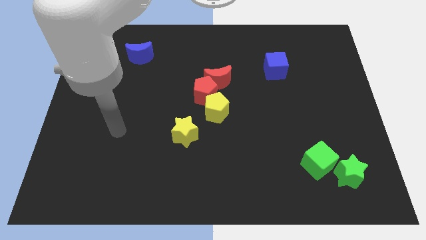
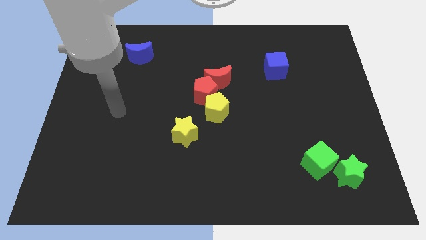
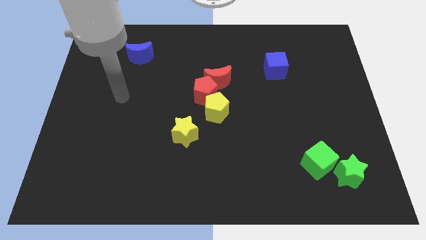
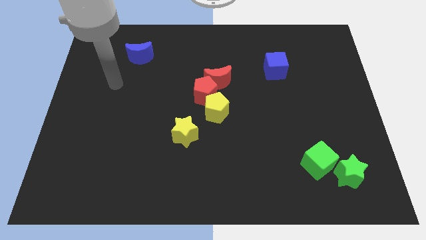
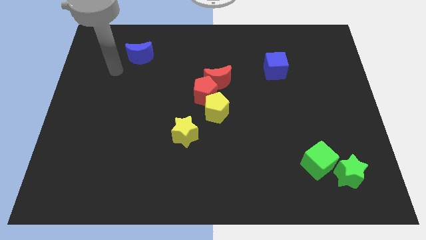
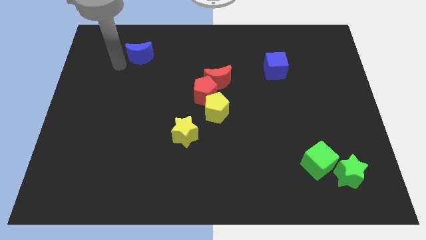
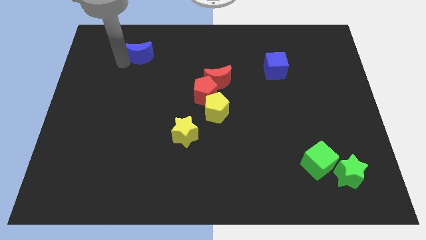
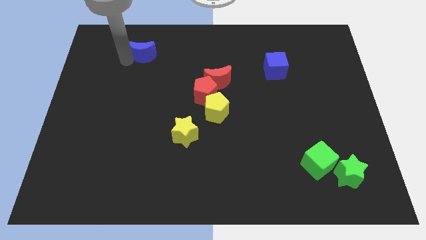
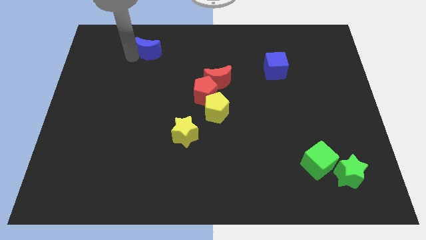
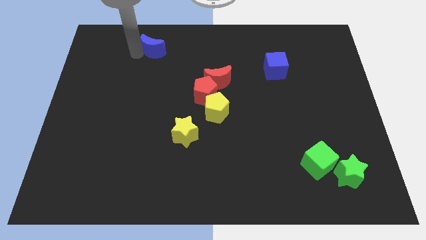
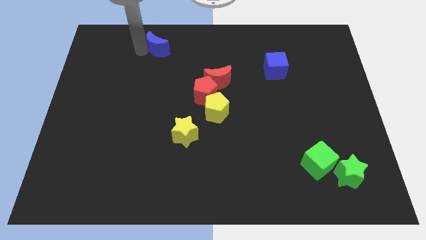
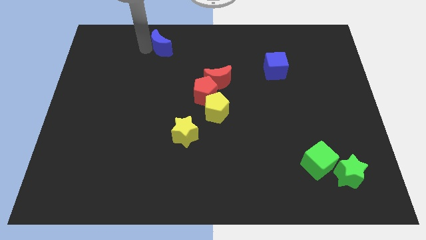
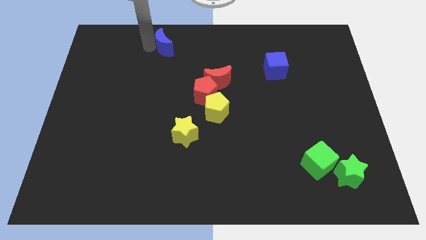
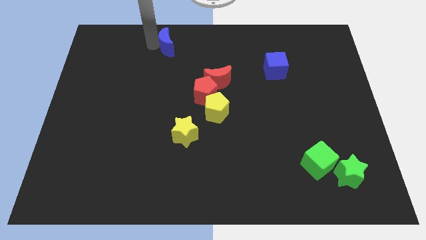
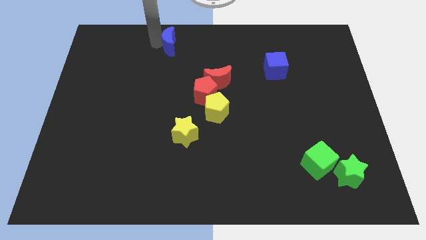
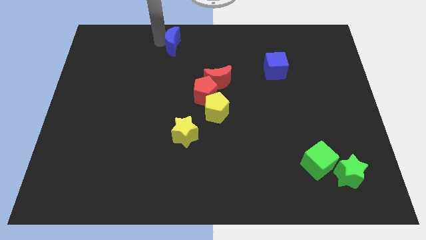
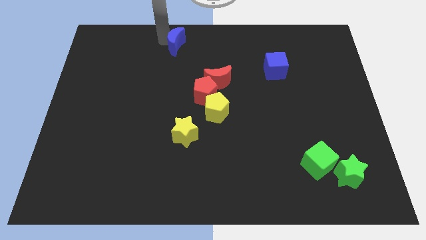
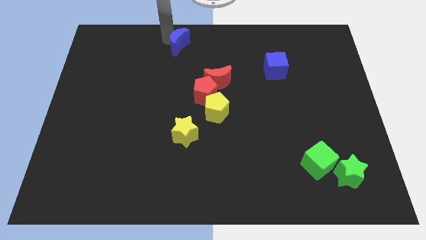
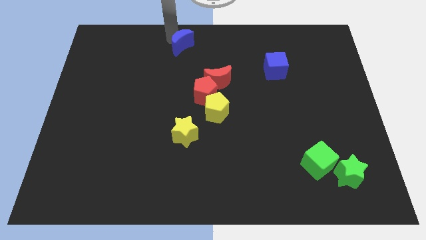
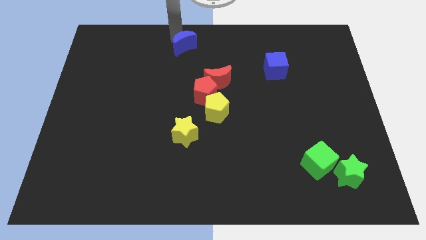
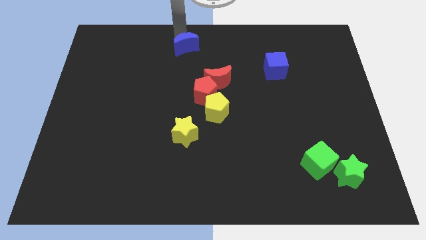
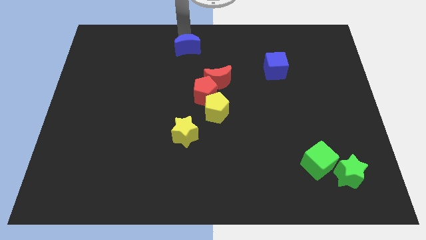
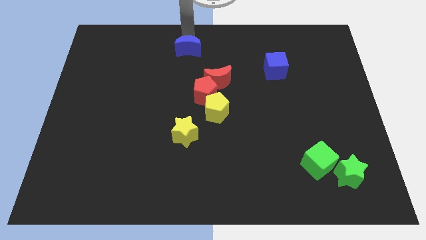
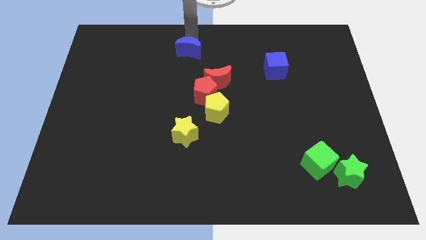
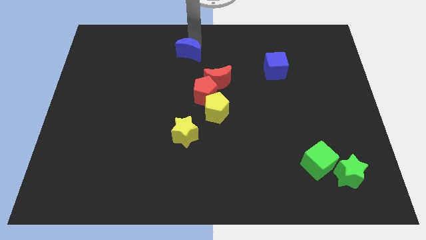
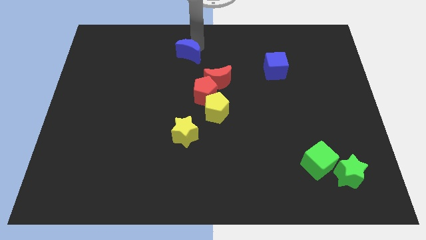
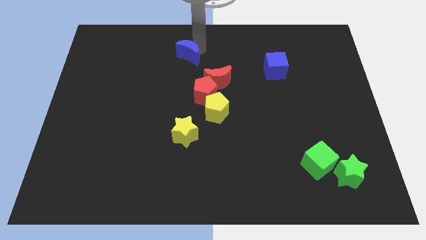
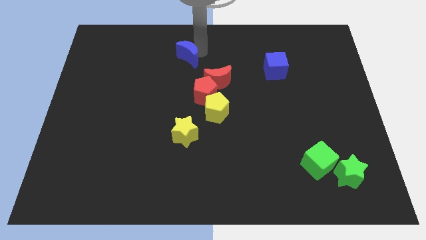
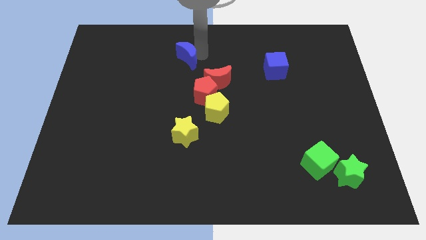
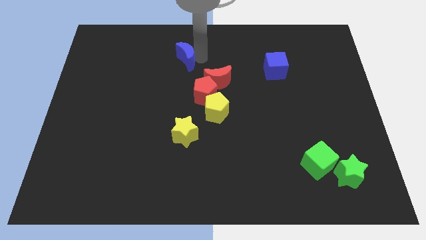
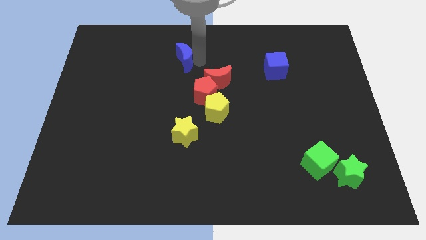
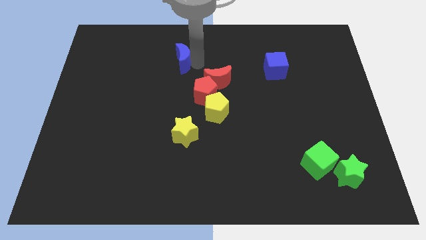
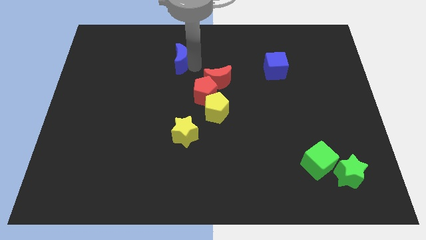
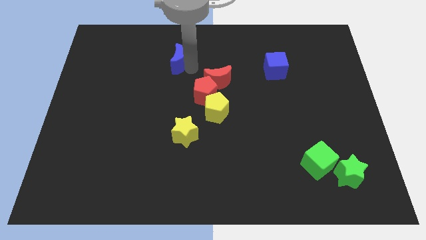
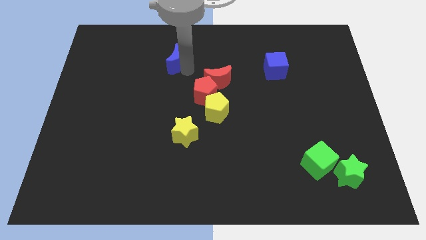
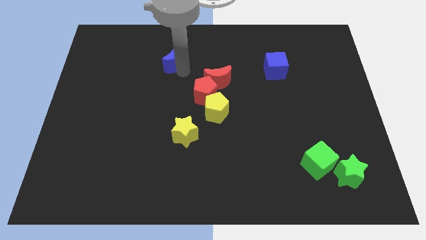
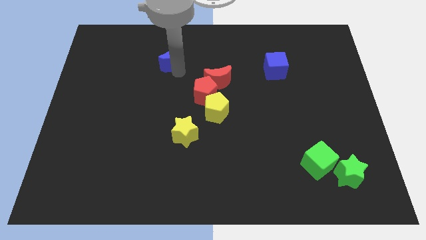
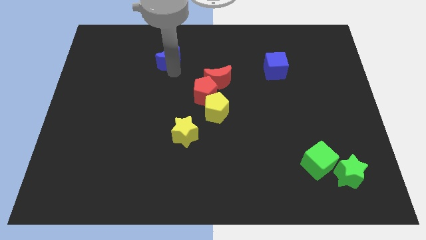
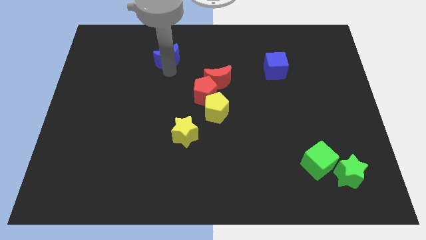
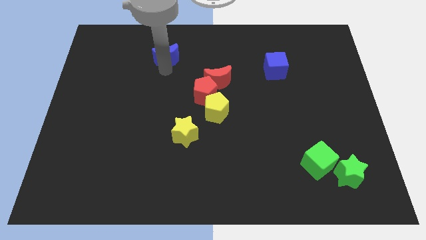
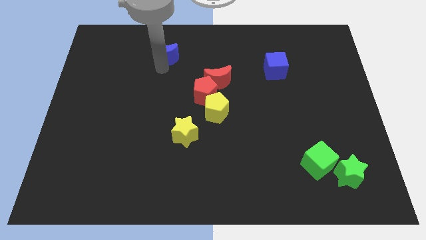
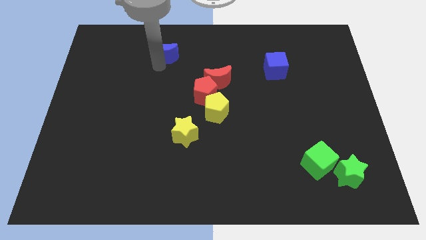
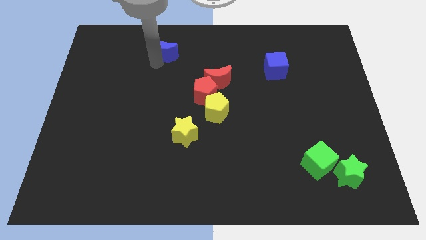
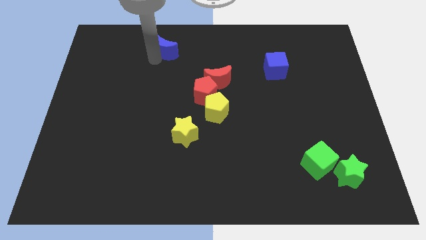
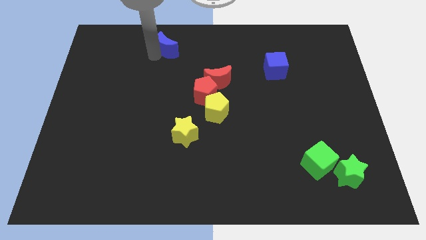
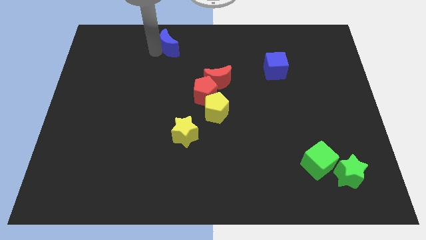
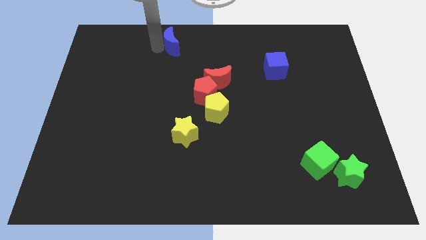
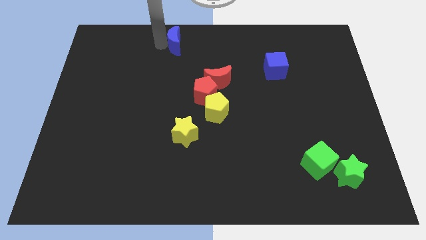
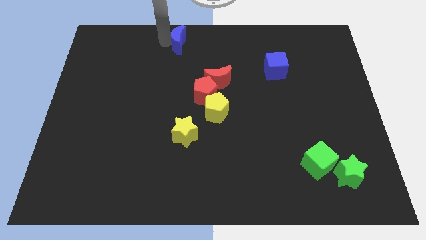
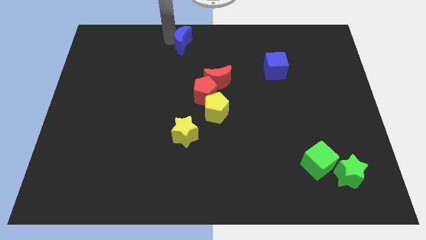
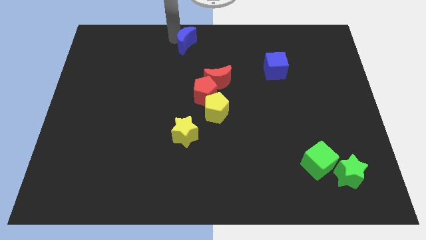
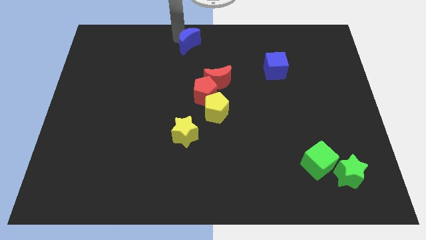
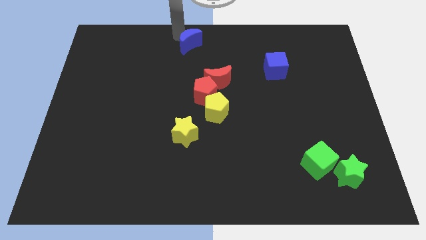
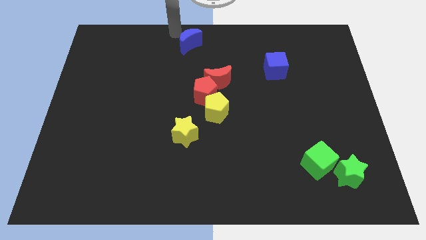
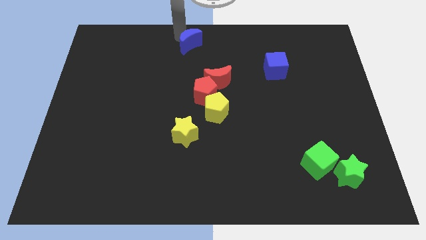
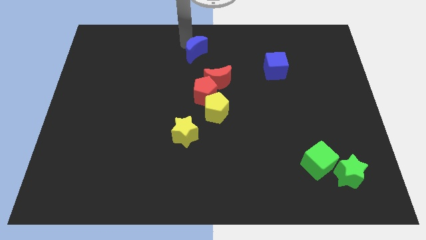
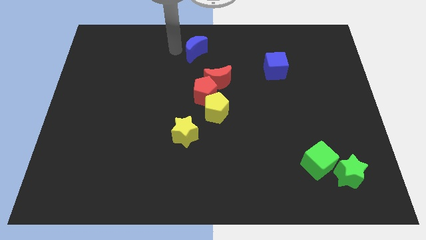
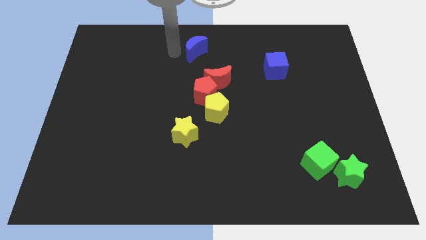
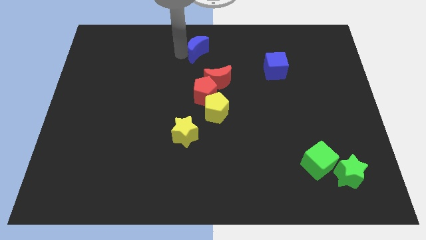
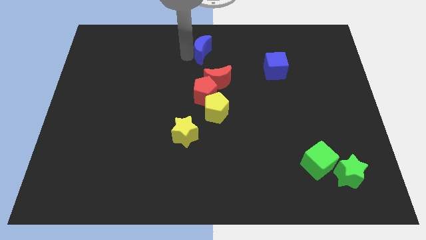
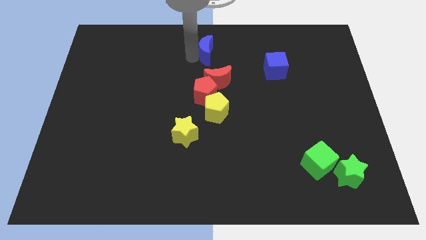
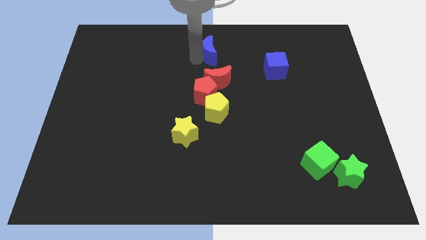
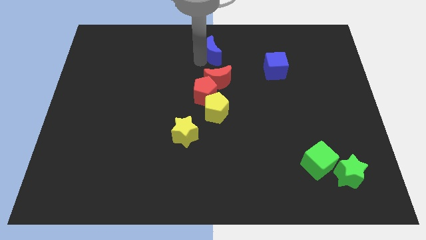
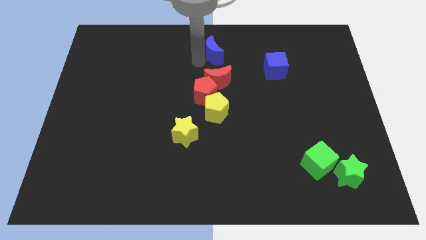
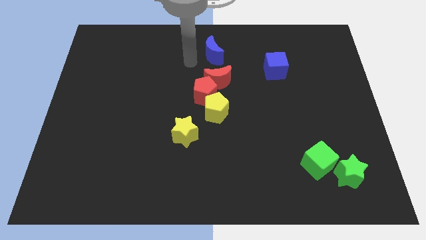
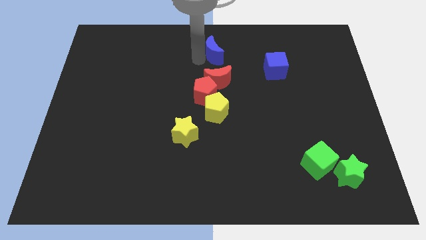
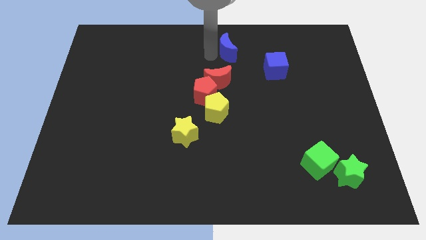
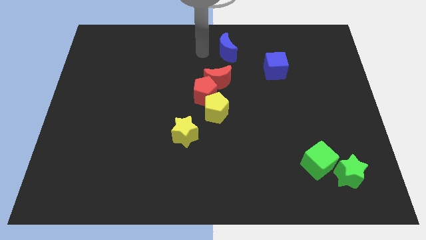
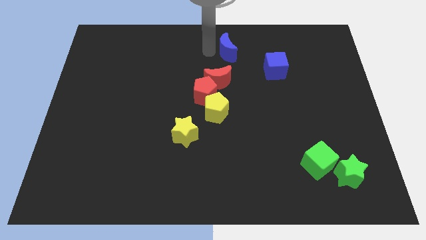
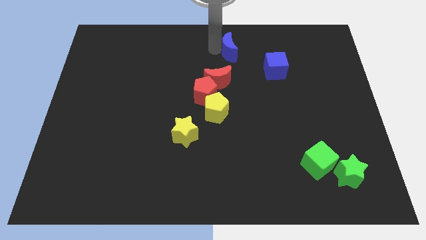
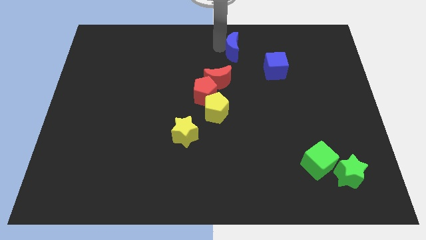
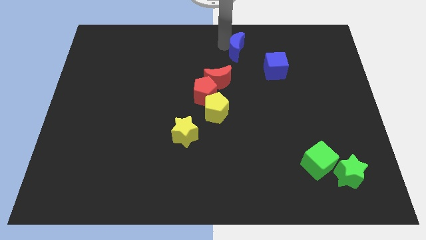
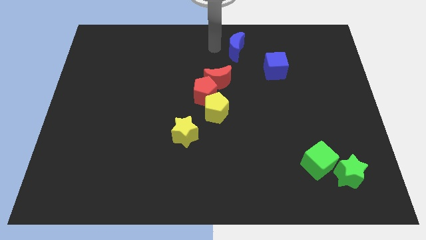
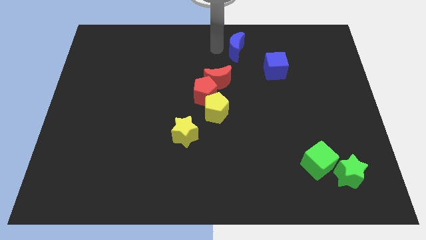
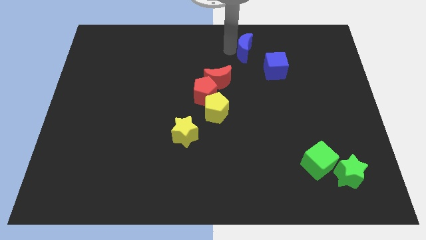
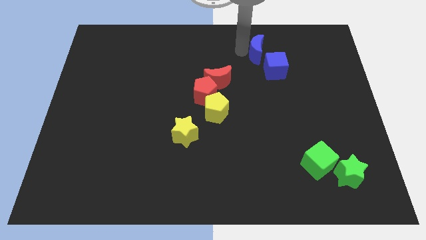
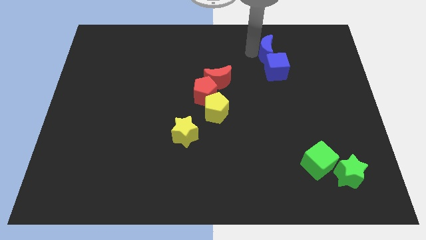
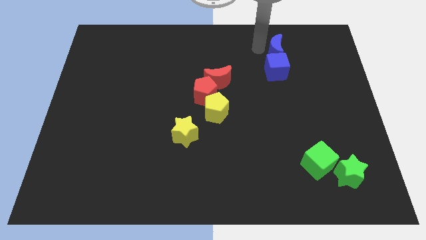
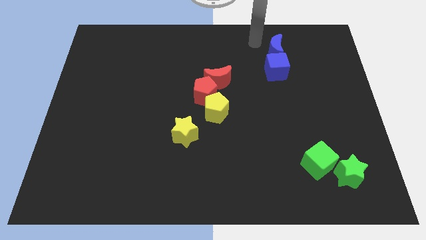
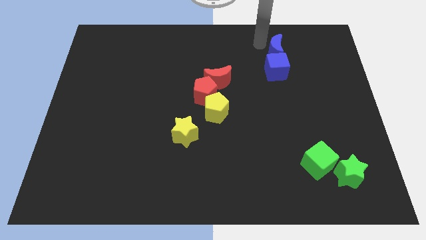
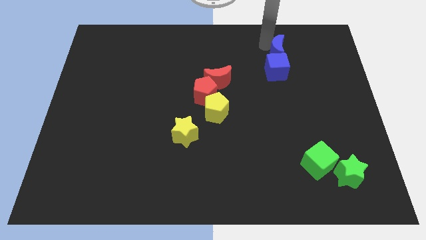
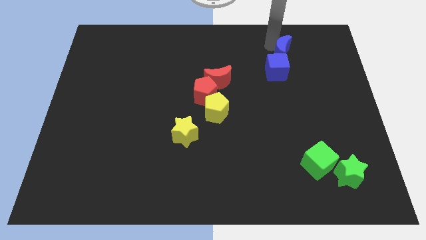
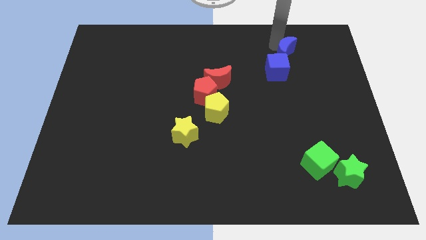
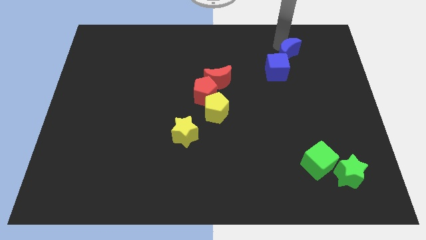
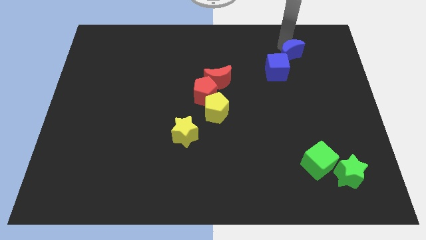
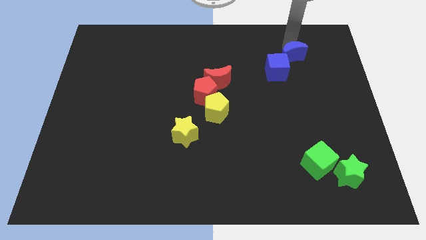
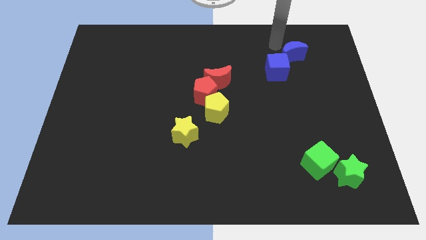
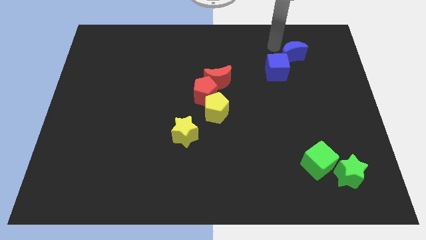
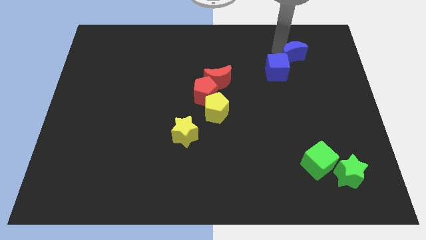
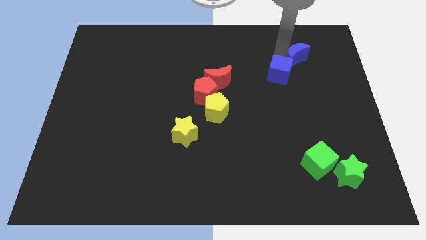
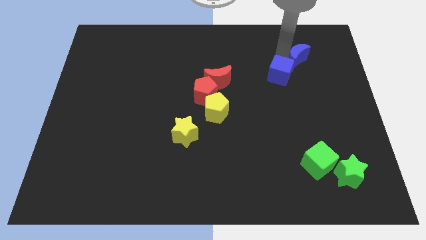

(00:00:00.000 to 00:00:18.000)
slide the blue moon to the right side of the blue cube
